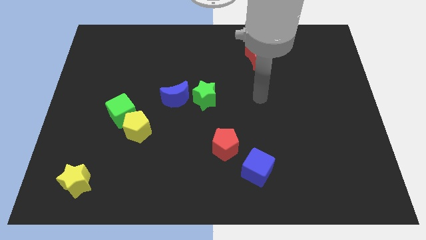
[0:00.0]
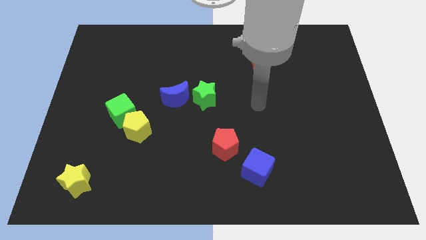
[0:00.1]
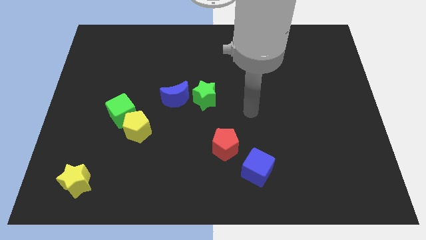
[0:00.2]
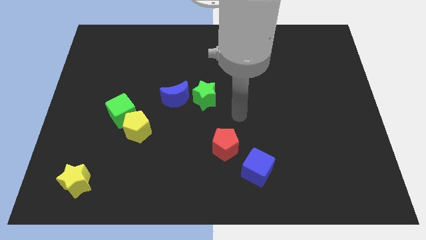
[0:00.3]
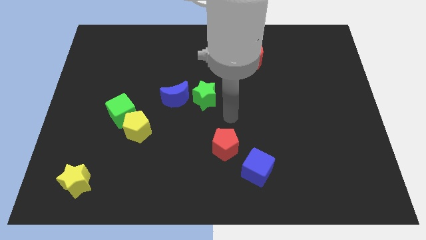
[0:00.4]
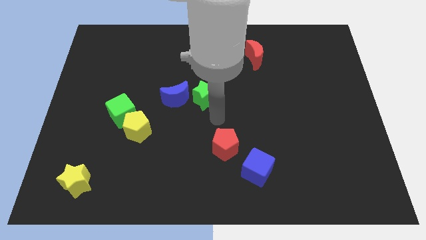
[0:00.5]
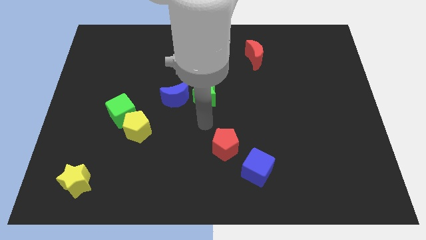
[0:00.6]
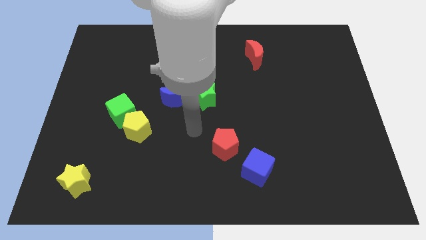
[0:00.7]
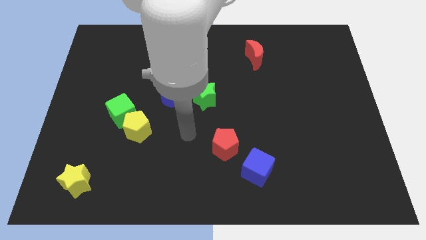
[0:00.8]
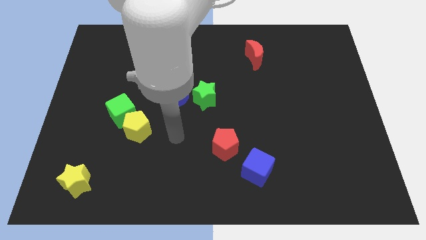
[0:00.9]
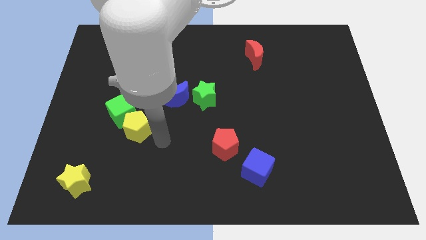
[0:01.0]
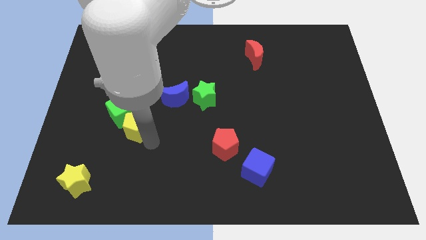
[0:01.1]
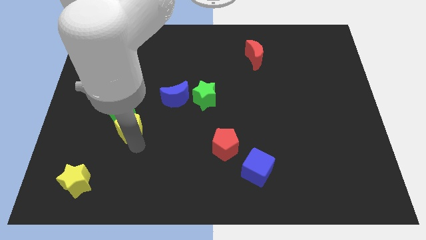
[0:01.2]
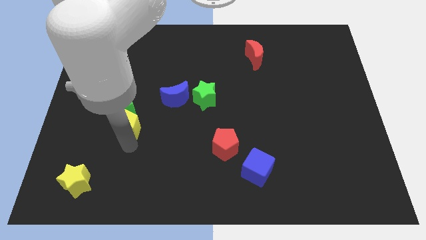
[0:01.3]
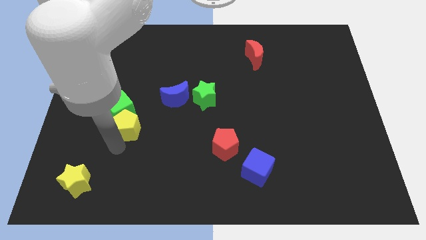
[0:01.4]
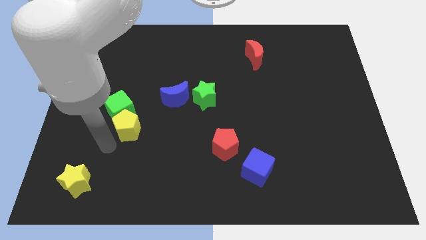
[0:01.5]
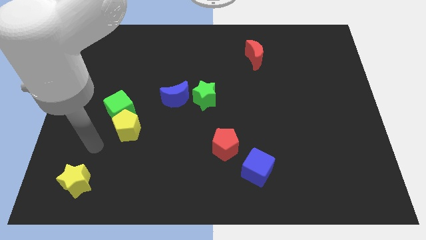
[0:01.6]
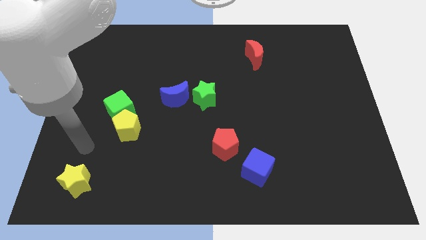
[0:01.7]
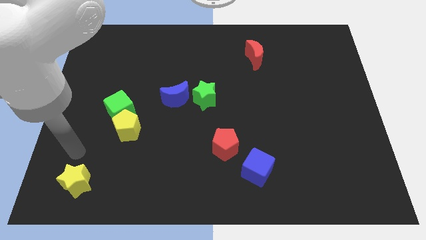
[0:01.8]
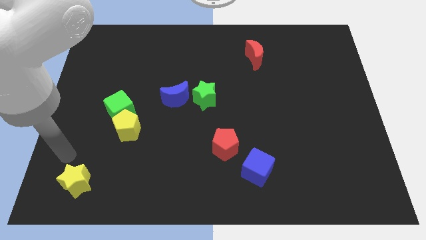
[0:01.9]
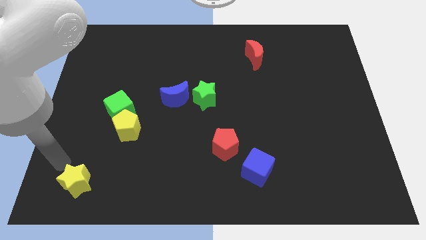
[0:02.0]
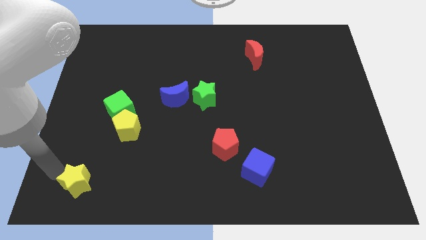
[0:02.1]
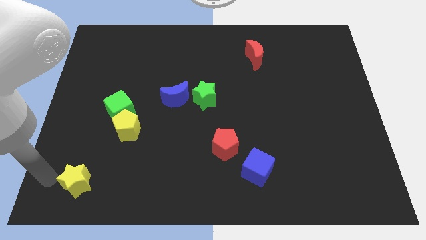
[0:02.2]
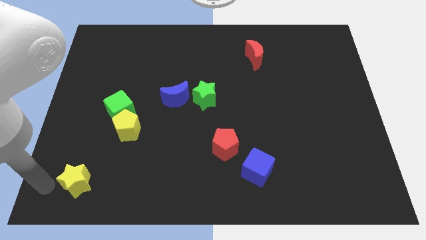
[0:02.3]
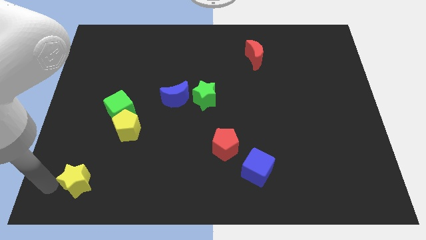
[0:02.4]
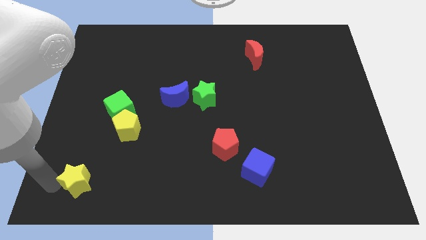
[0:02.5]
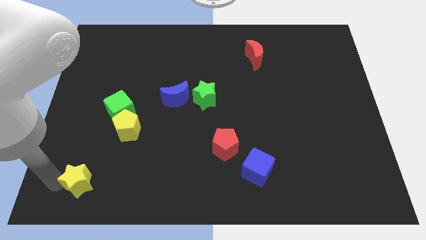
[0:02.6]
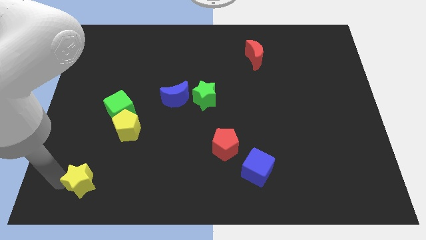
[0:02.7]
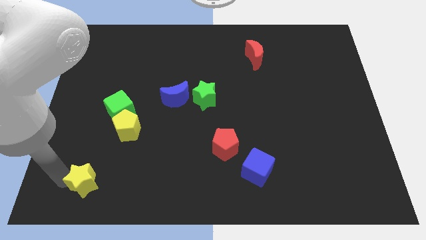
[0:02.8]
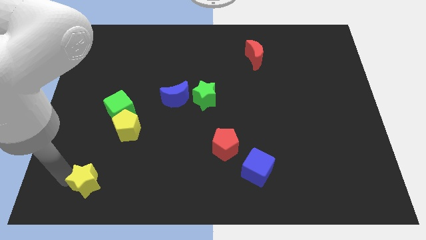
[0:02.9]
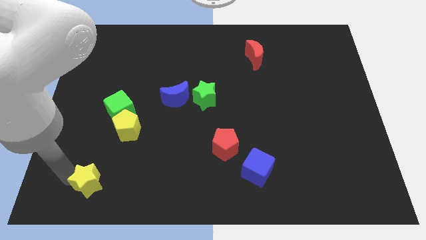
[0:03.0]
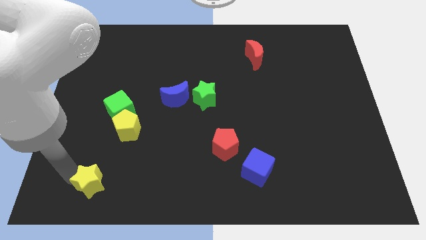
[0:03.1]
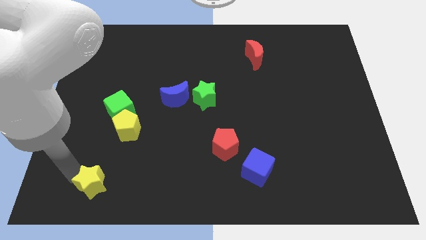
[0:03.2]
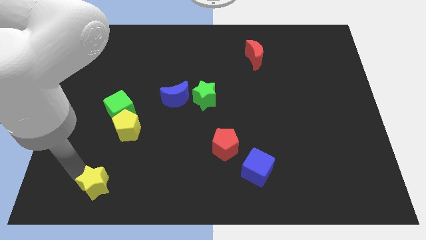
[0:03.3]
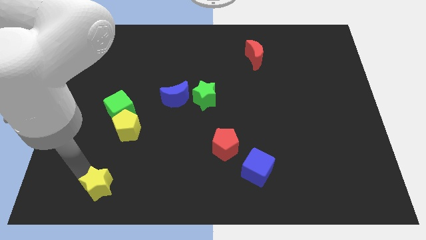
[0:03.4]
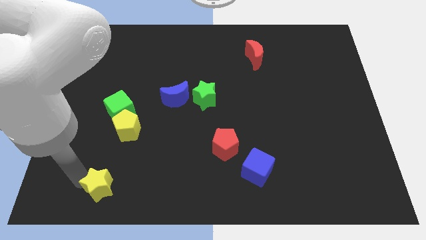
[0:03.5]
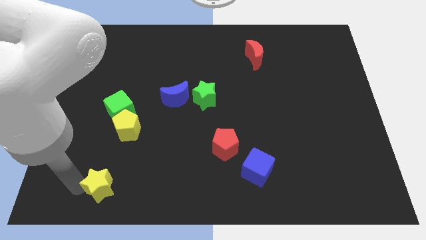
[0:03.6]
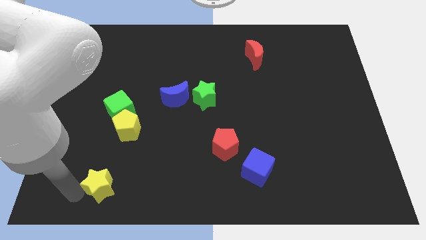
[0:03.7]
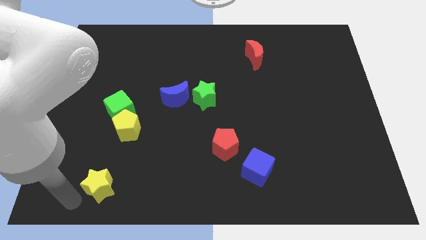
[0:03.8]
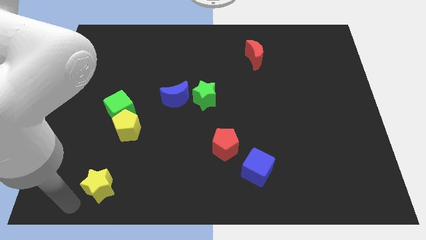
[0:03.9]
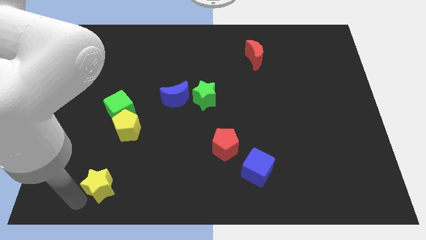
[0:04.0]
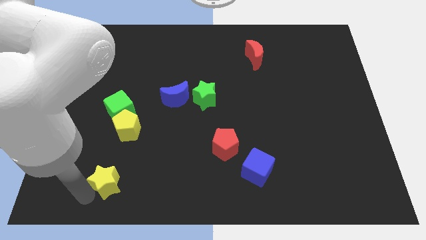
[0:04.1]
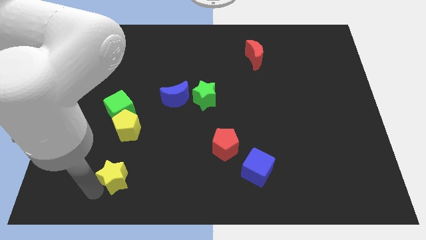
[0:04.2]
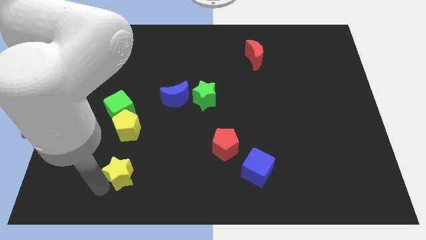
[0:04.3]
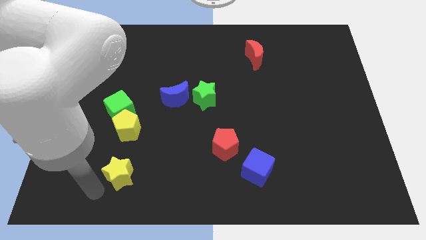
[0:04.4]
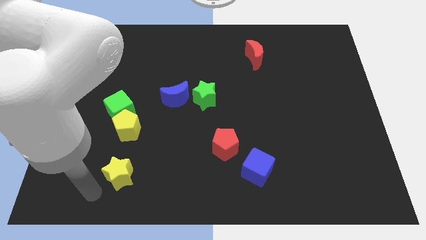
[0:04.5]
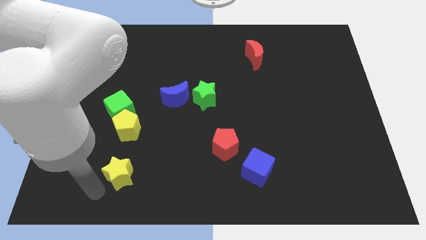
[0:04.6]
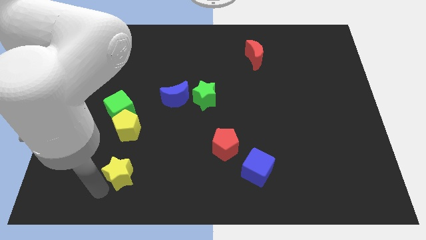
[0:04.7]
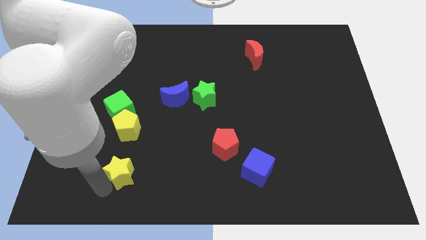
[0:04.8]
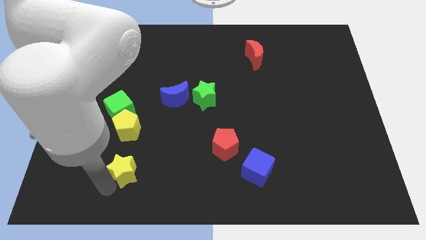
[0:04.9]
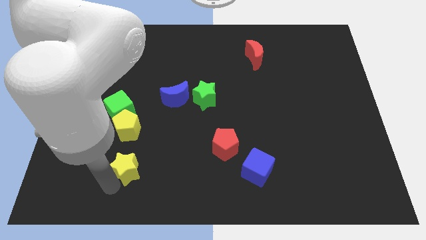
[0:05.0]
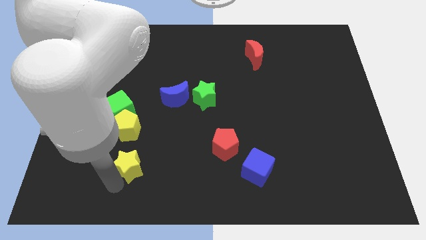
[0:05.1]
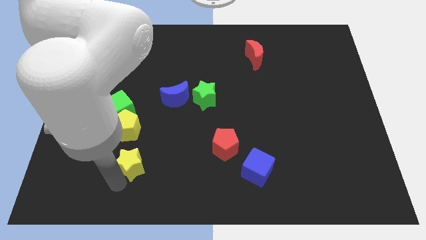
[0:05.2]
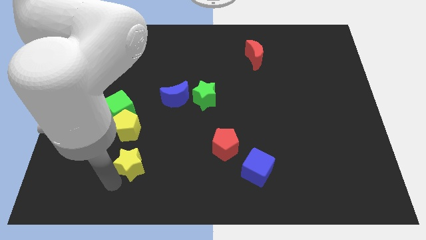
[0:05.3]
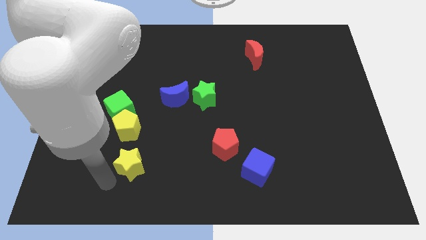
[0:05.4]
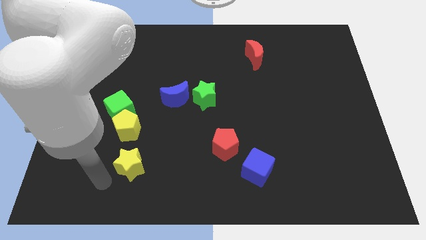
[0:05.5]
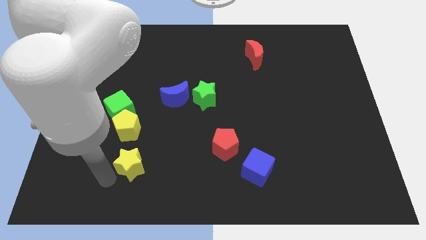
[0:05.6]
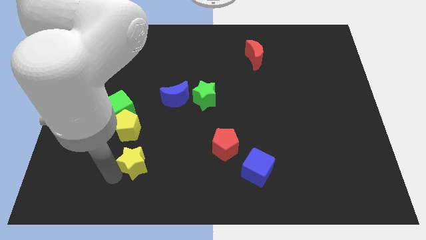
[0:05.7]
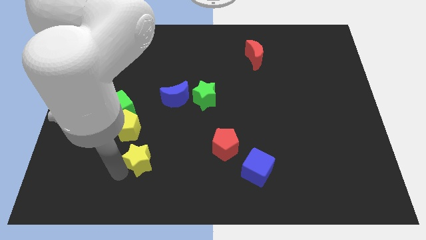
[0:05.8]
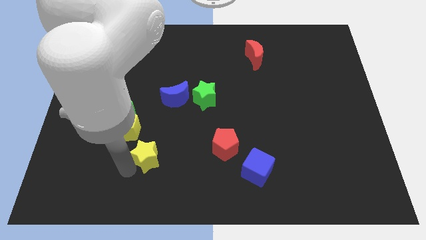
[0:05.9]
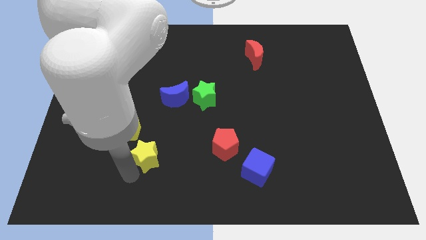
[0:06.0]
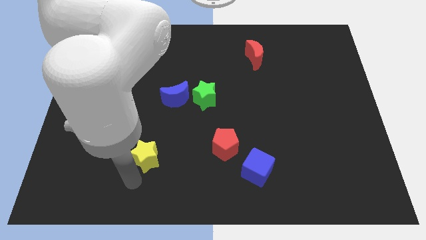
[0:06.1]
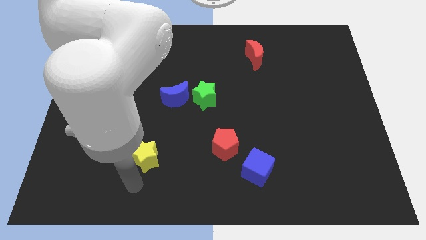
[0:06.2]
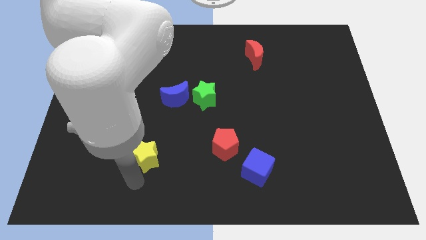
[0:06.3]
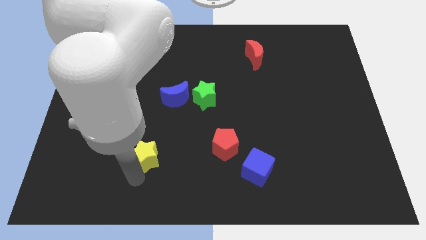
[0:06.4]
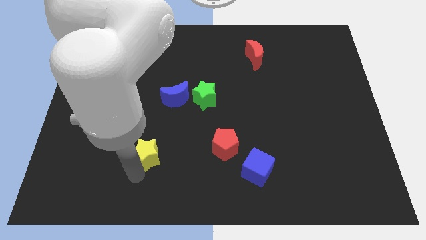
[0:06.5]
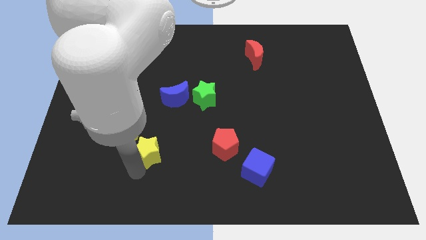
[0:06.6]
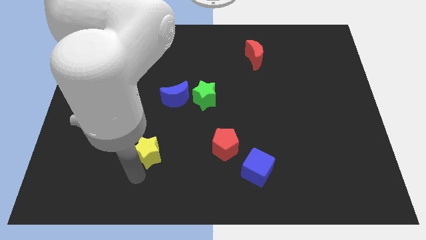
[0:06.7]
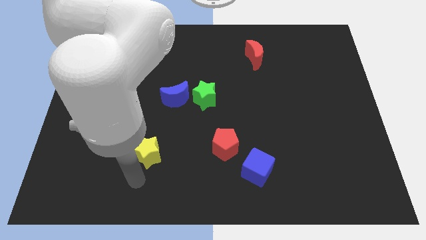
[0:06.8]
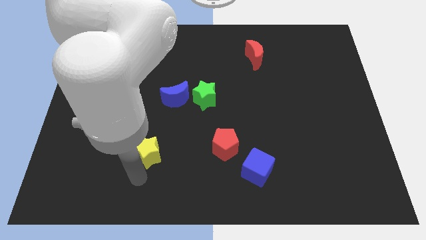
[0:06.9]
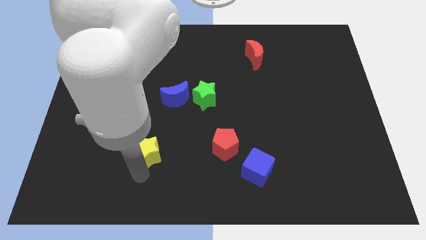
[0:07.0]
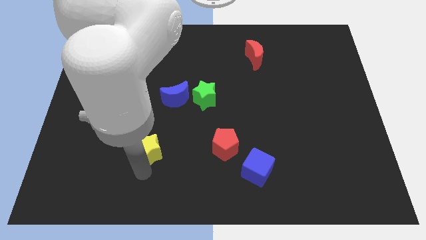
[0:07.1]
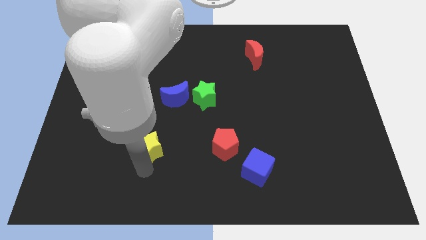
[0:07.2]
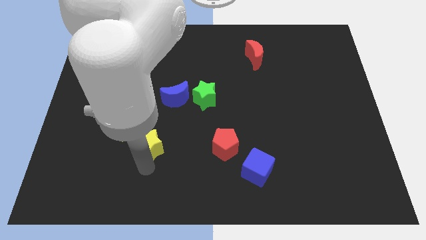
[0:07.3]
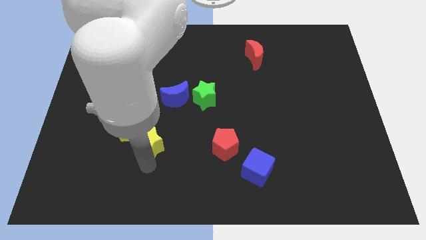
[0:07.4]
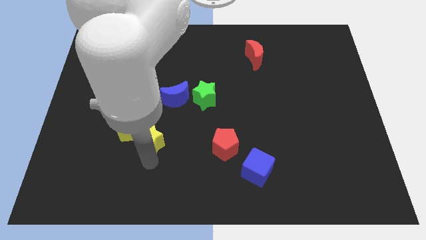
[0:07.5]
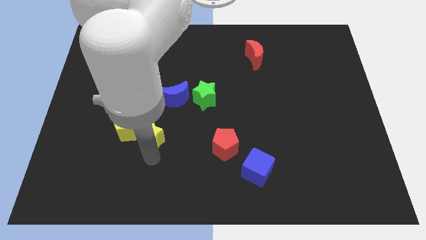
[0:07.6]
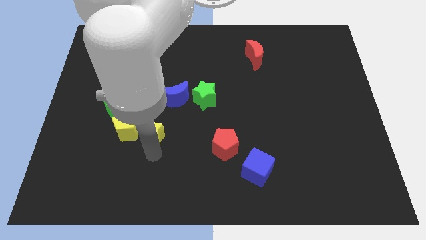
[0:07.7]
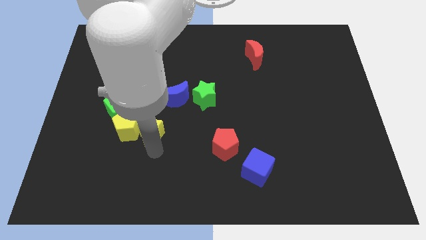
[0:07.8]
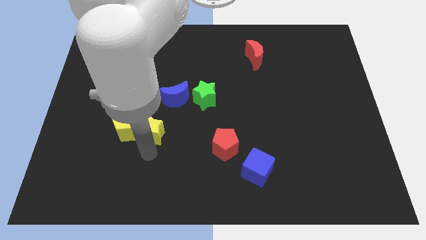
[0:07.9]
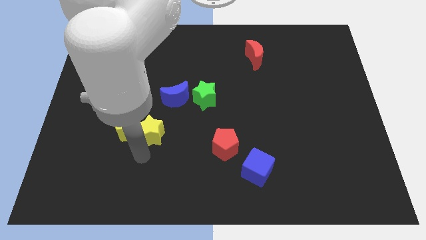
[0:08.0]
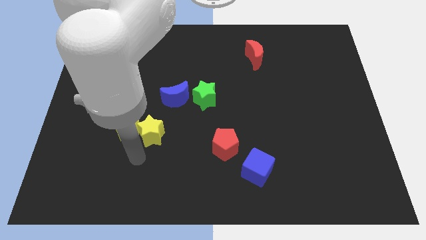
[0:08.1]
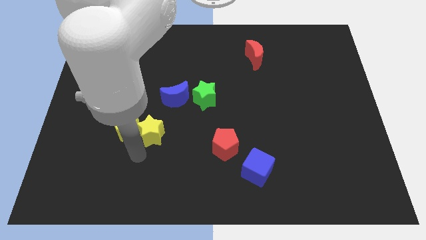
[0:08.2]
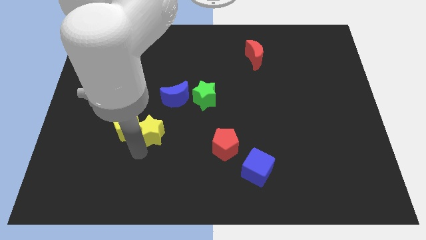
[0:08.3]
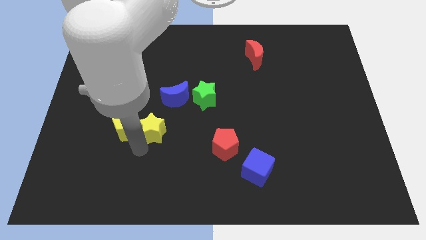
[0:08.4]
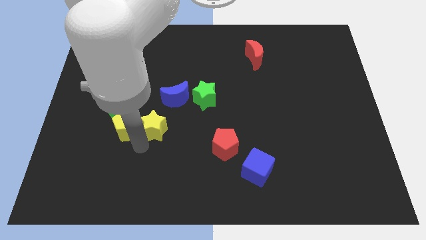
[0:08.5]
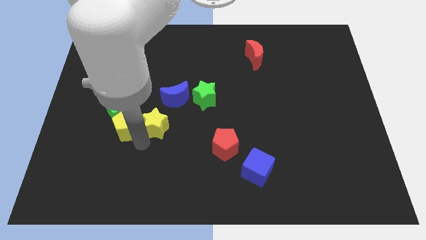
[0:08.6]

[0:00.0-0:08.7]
push the yellow star right of the green cube
